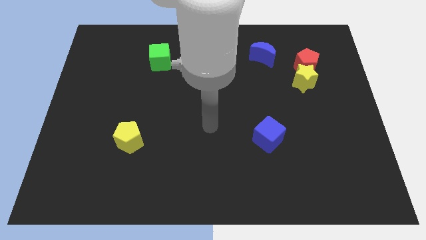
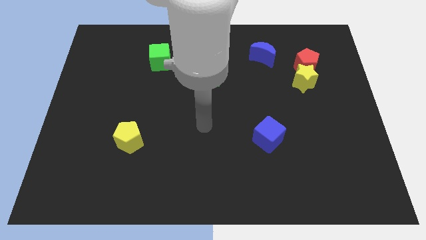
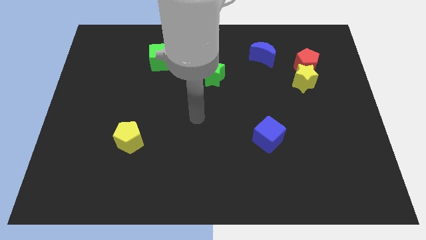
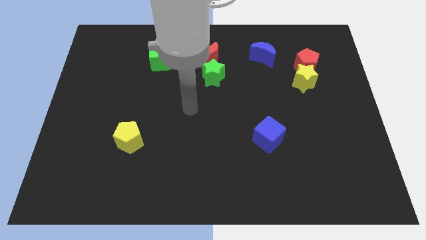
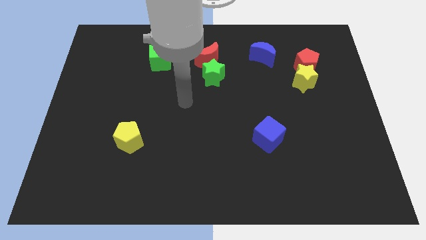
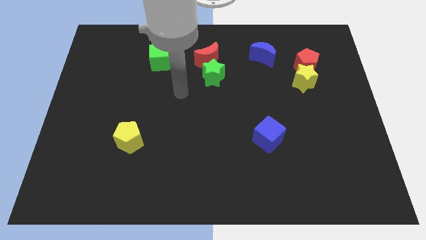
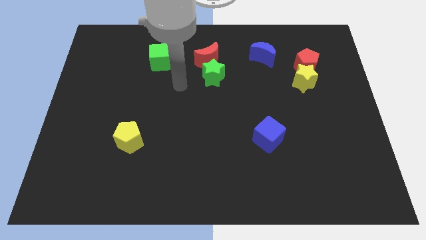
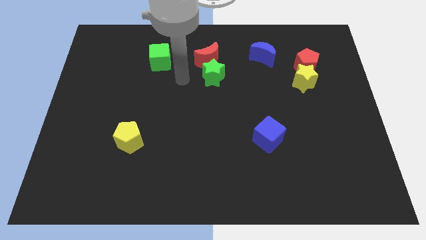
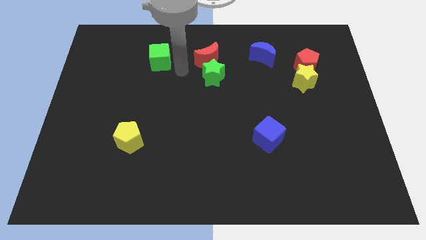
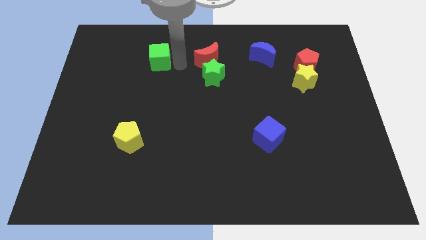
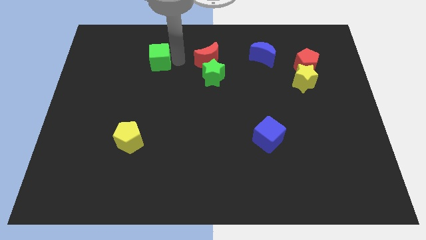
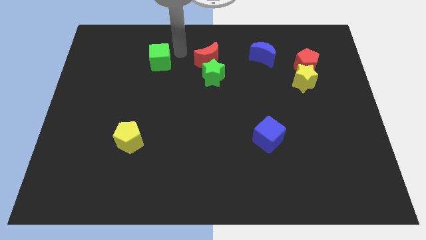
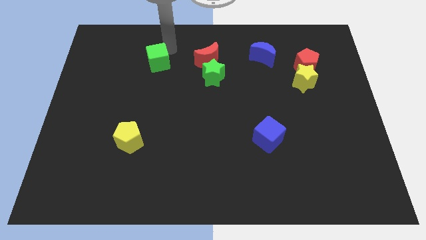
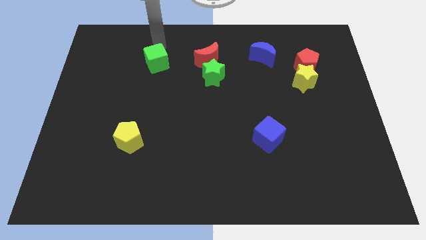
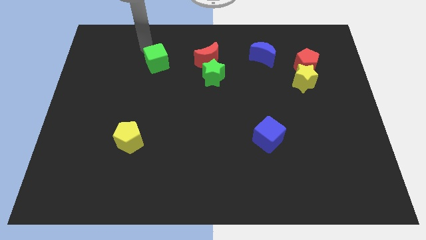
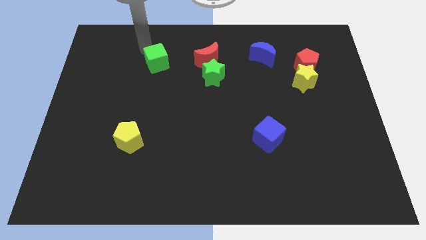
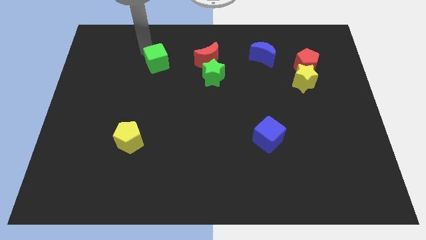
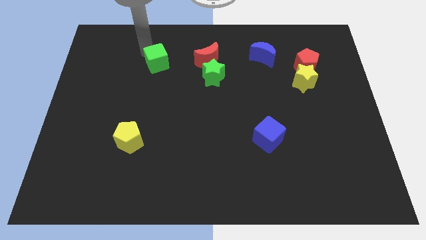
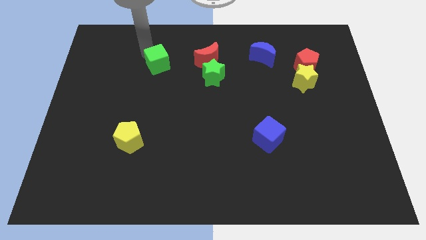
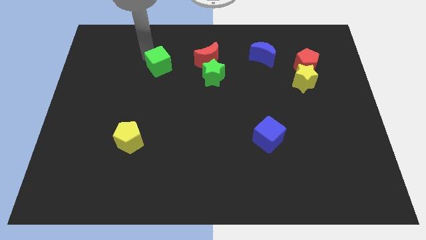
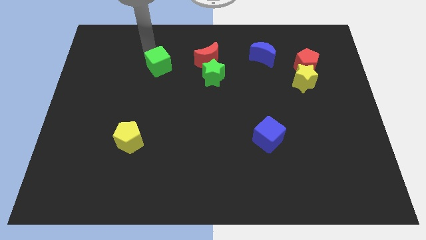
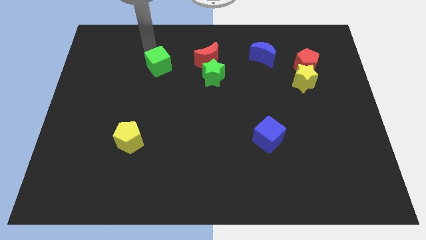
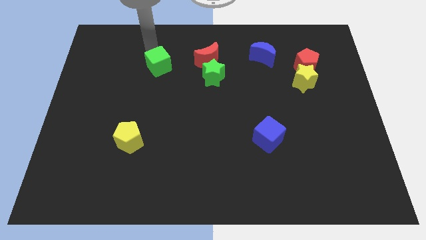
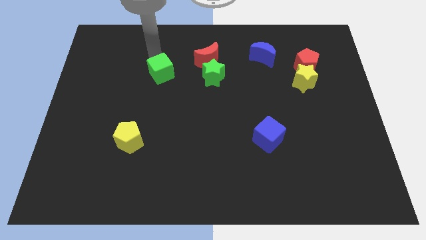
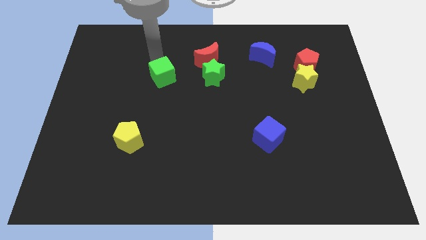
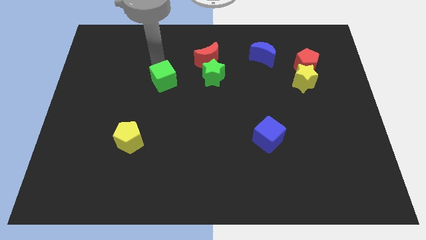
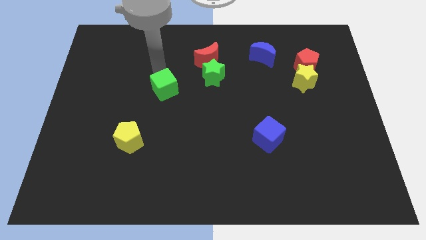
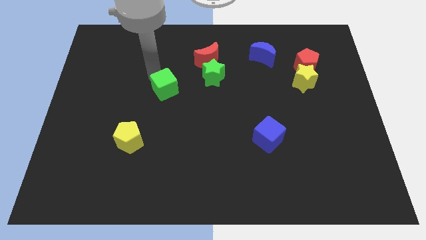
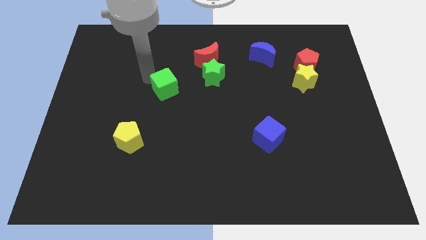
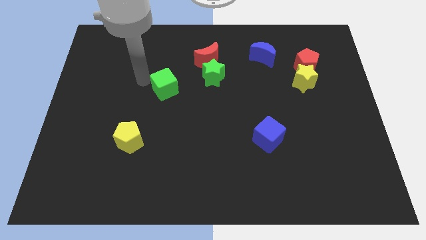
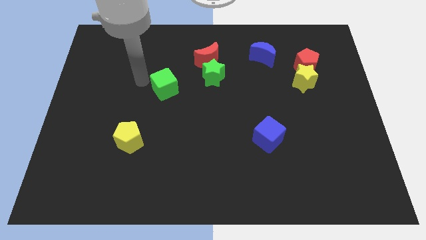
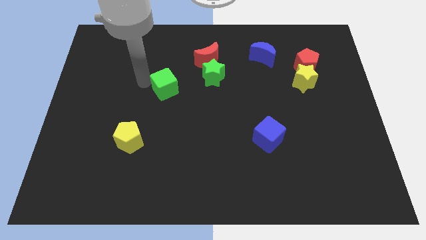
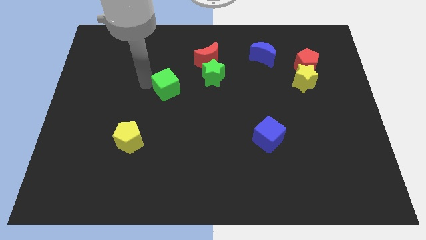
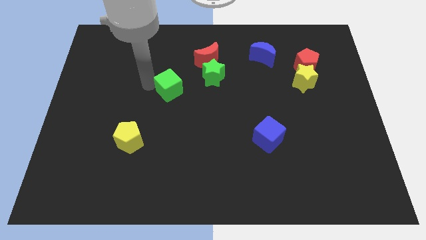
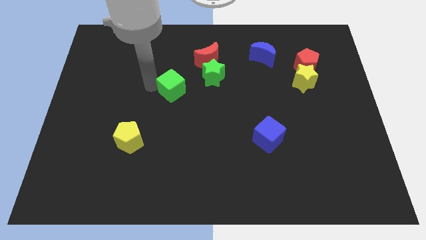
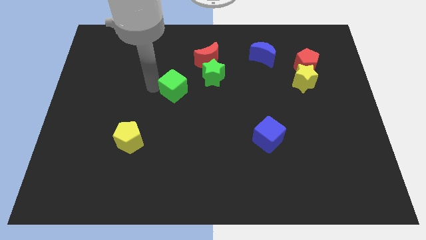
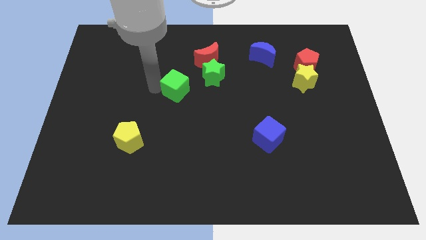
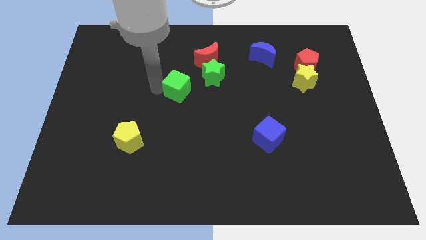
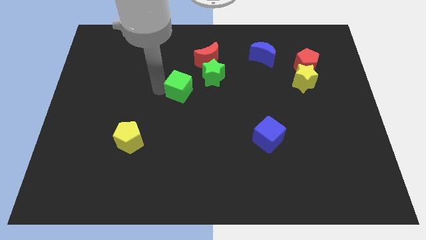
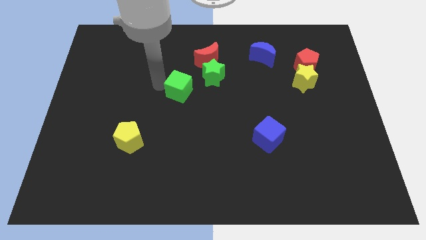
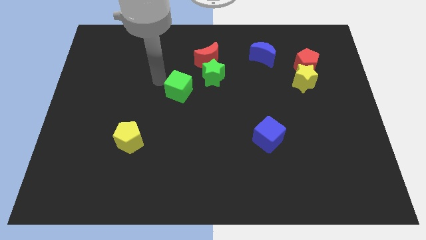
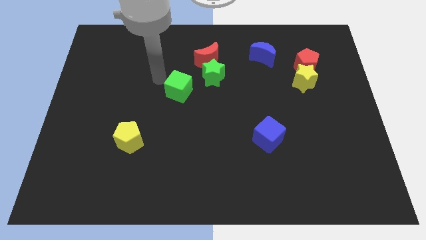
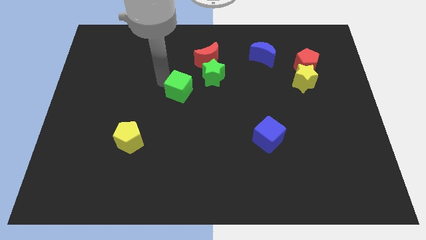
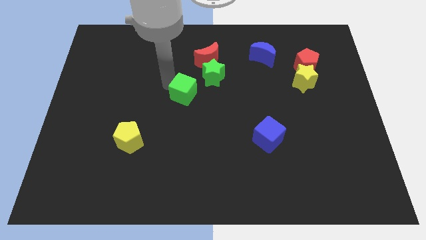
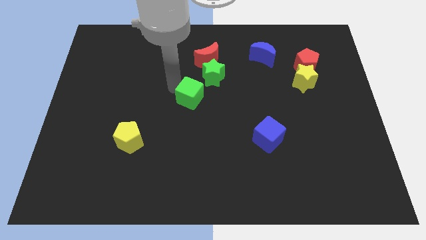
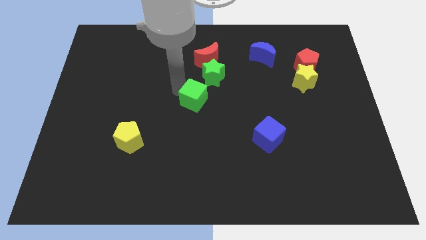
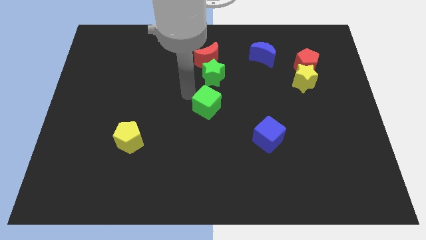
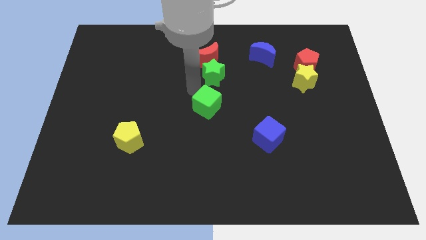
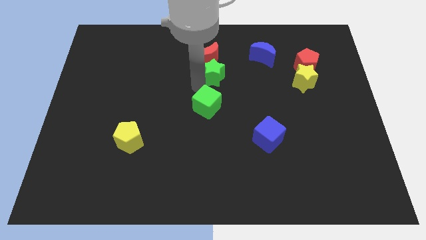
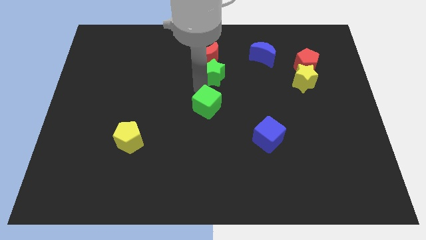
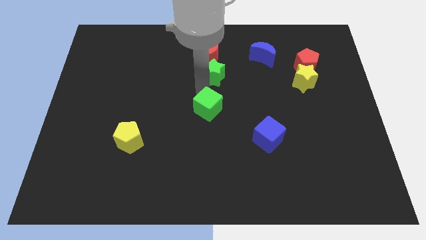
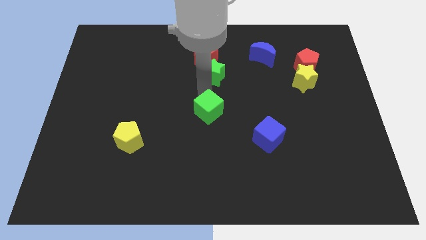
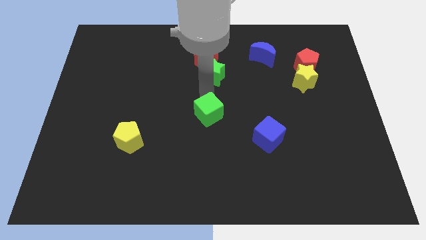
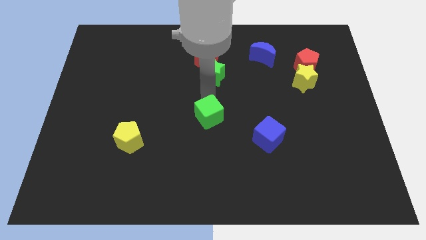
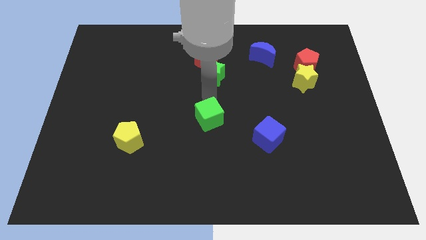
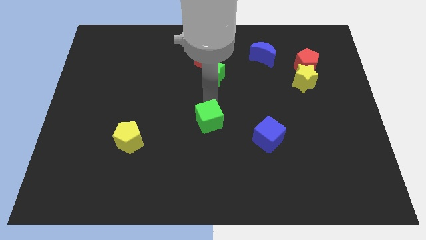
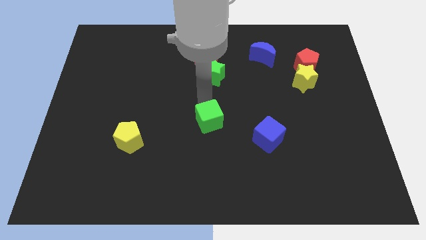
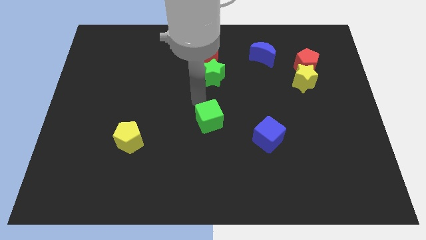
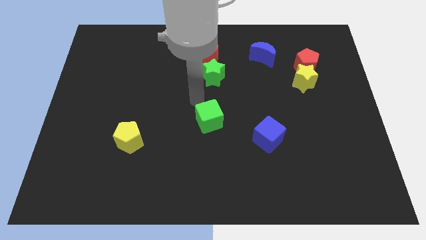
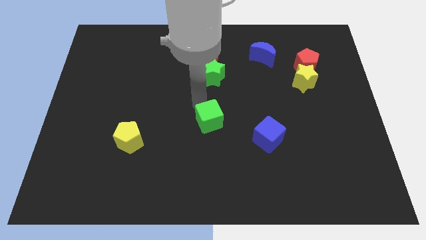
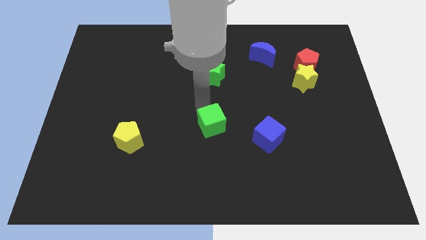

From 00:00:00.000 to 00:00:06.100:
move the green cube to the left side of the blue cube

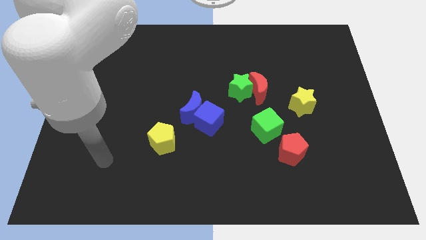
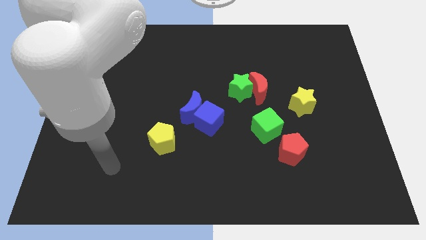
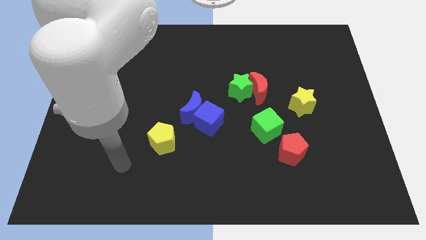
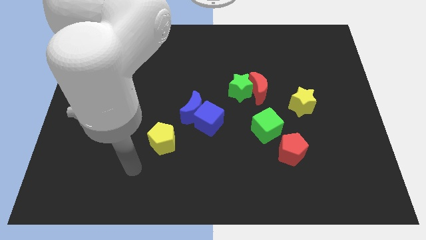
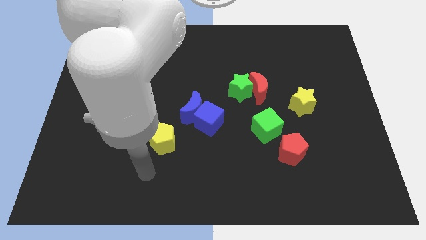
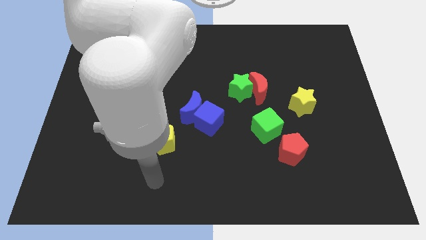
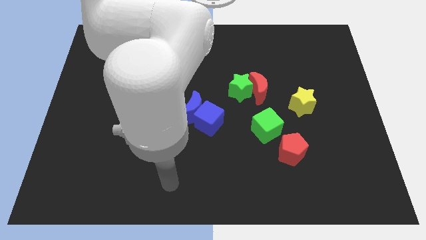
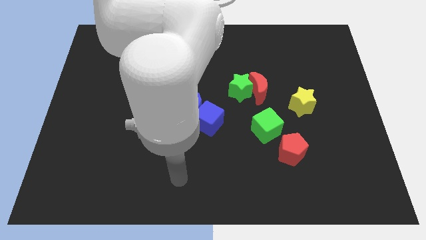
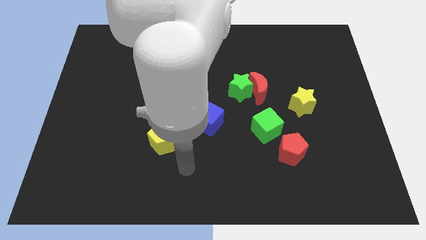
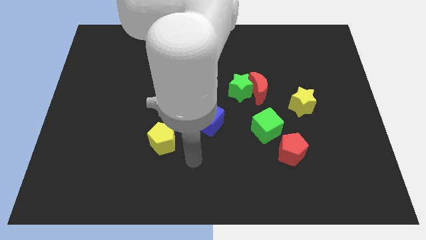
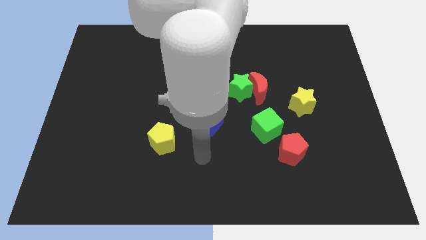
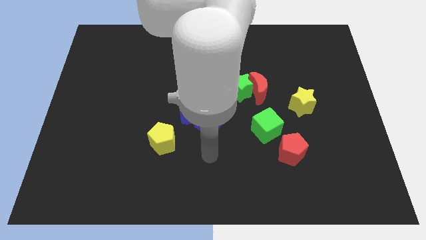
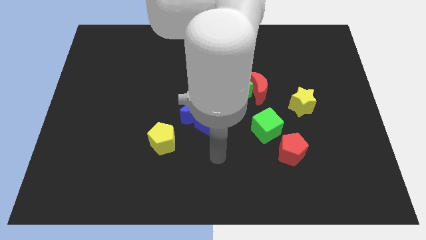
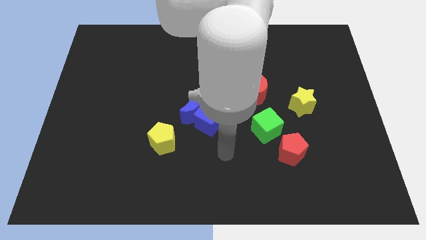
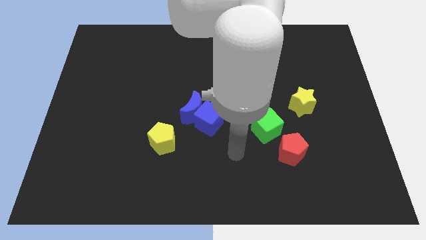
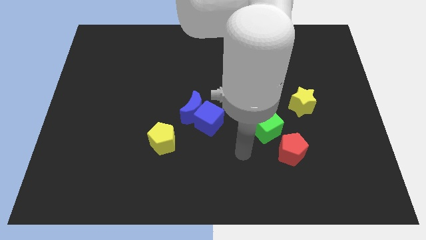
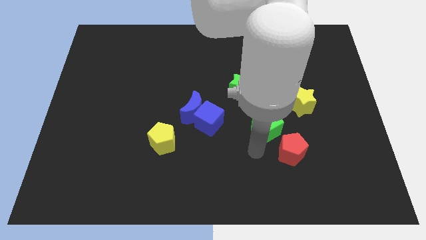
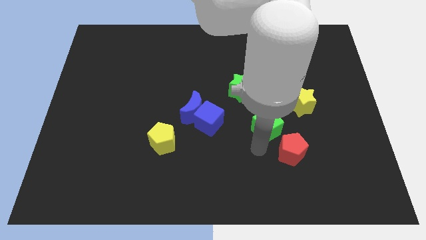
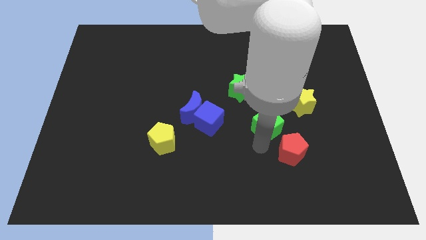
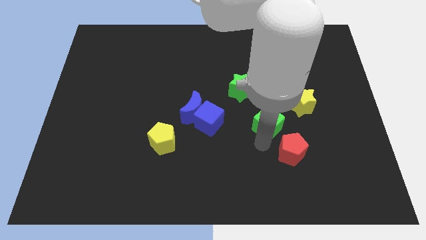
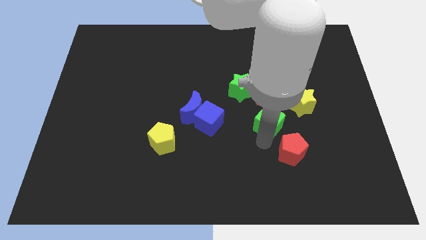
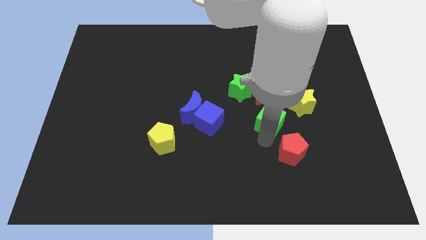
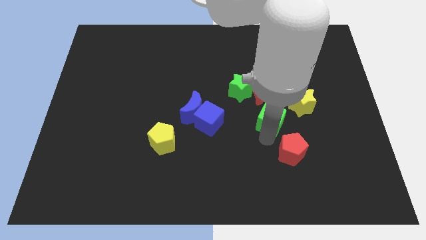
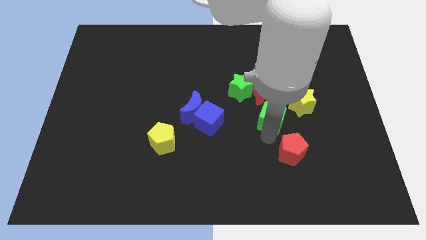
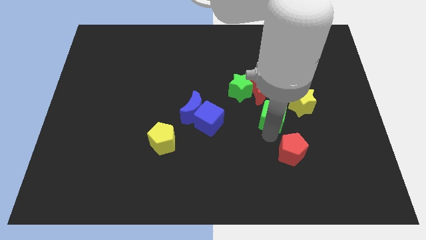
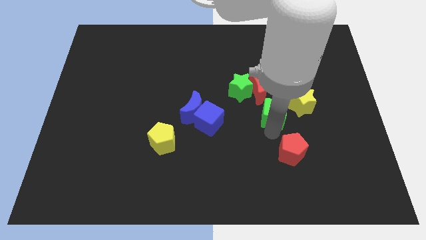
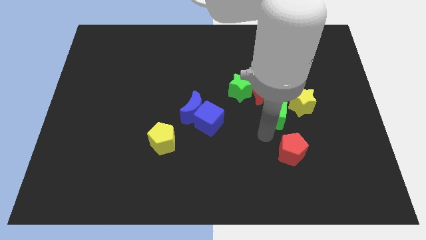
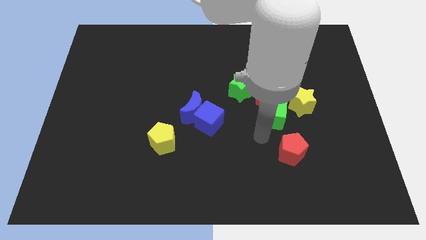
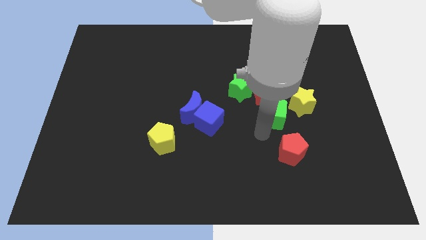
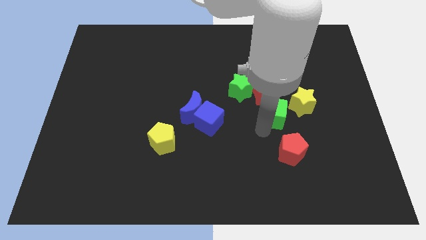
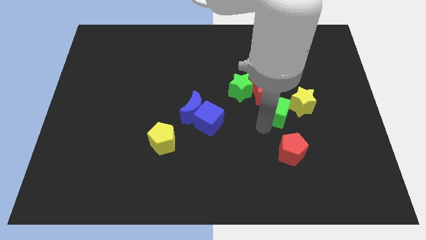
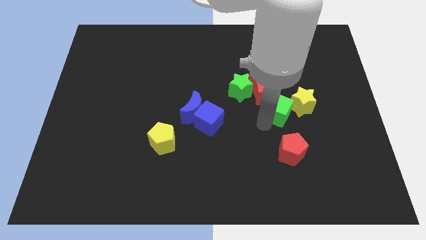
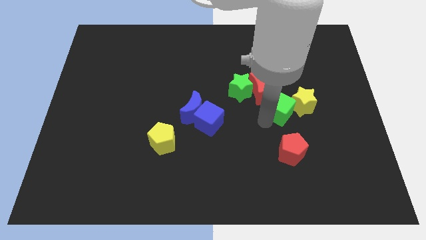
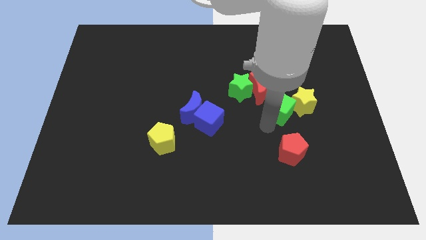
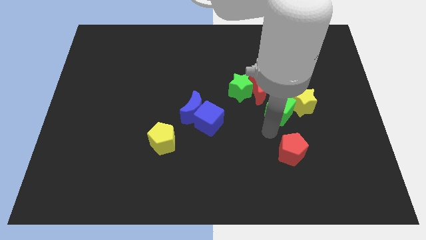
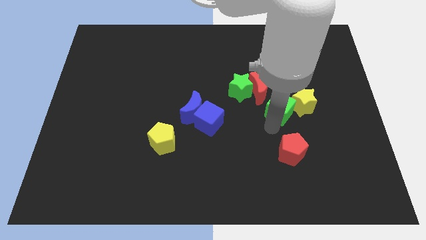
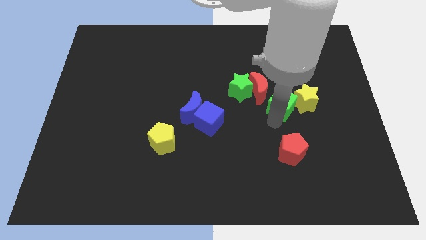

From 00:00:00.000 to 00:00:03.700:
move the green cube just right of the red moon
